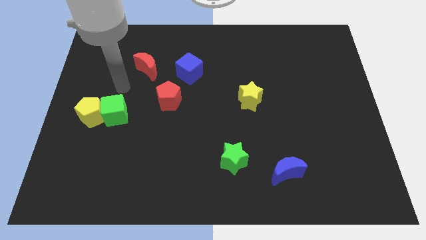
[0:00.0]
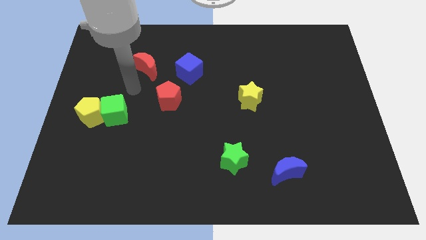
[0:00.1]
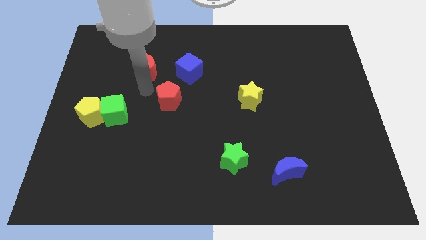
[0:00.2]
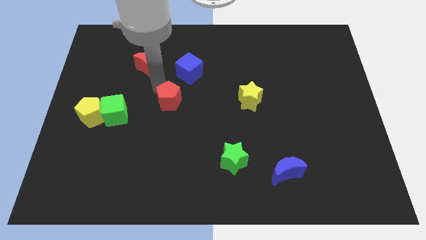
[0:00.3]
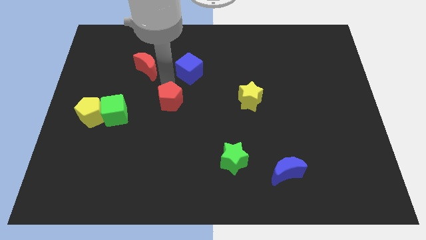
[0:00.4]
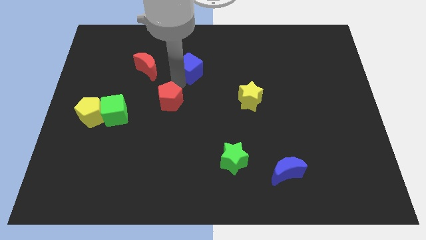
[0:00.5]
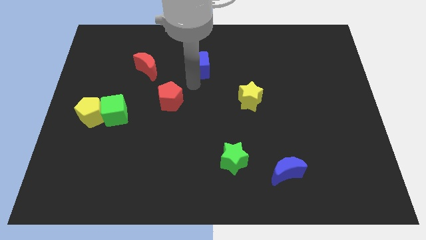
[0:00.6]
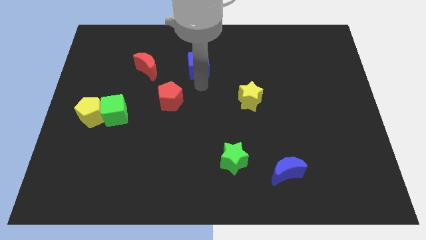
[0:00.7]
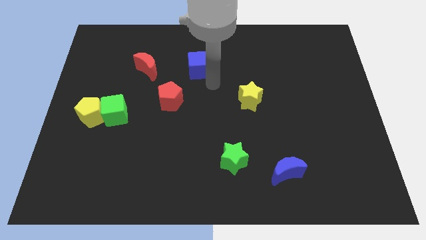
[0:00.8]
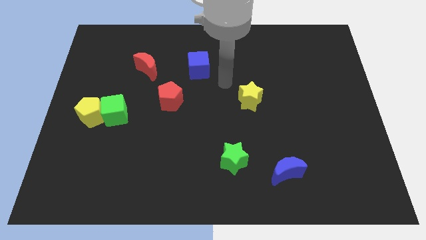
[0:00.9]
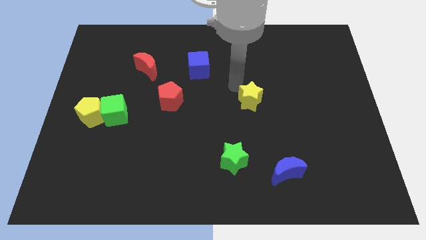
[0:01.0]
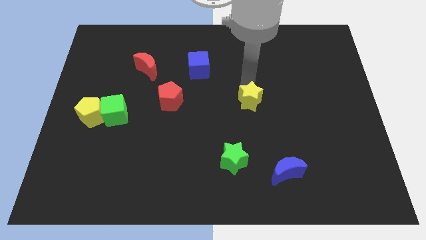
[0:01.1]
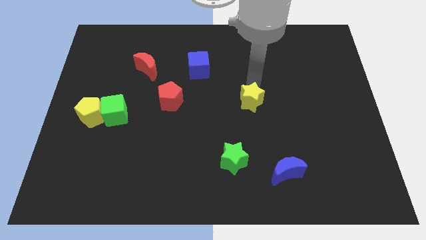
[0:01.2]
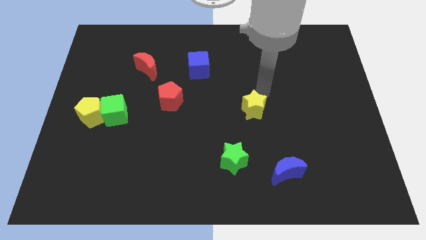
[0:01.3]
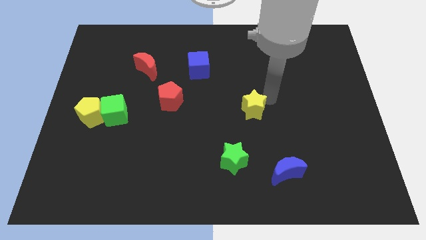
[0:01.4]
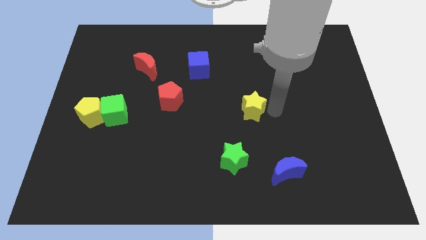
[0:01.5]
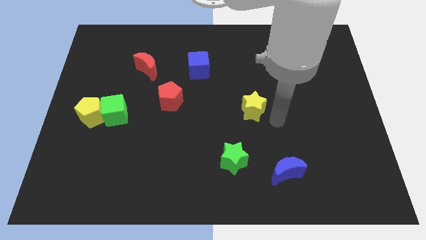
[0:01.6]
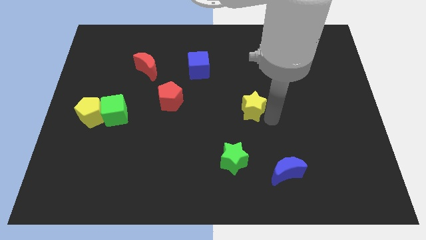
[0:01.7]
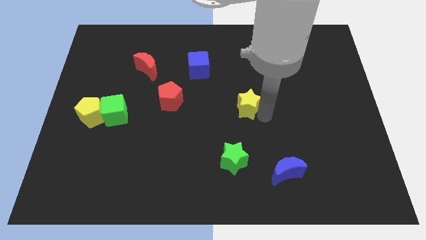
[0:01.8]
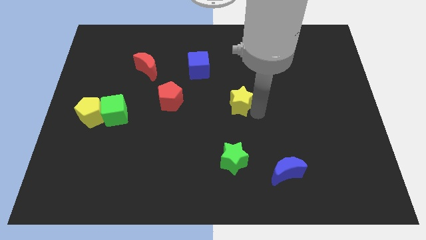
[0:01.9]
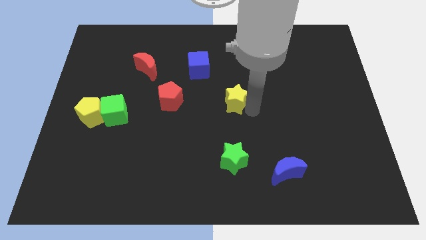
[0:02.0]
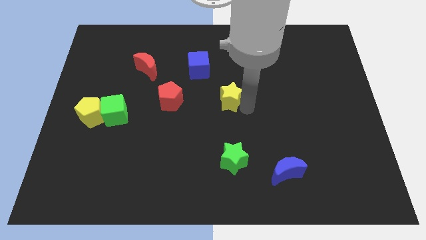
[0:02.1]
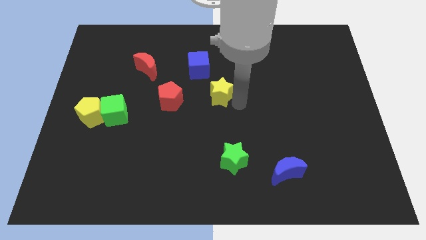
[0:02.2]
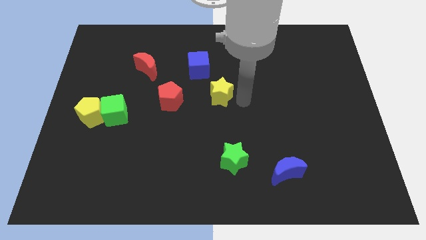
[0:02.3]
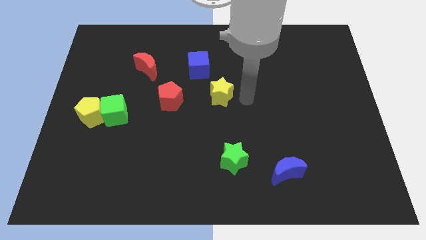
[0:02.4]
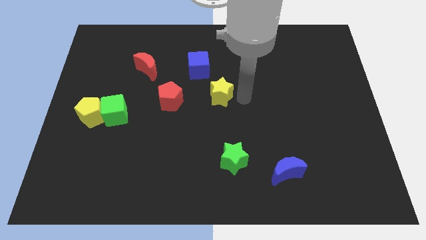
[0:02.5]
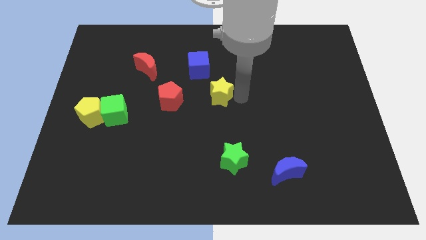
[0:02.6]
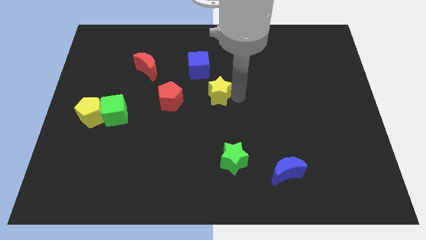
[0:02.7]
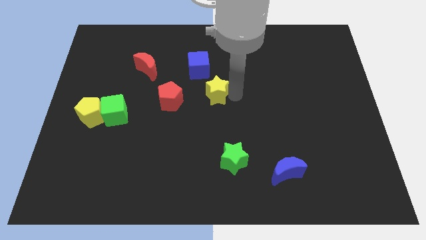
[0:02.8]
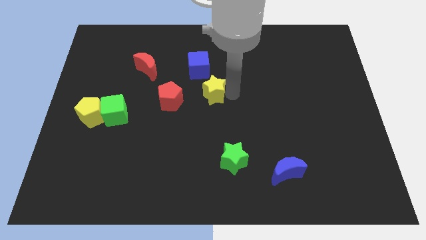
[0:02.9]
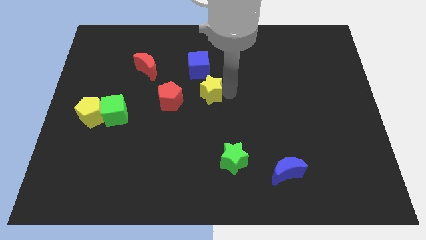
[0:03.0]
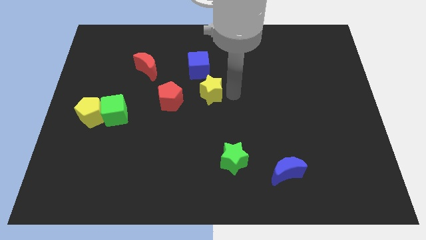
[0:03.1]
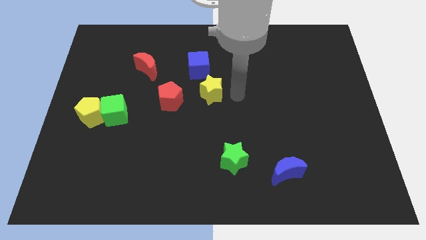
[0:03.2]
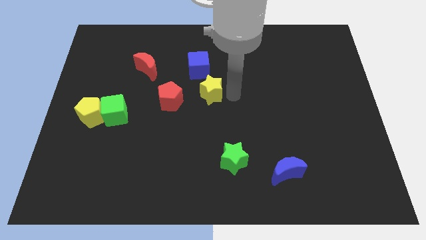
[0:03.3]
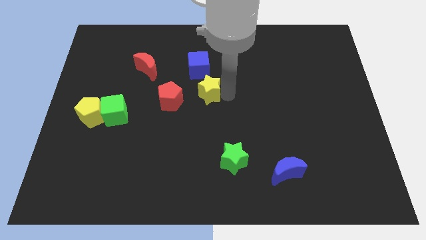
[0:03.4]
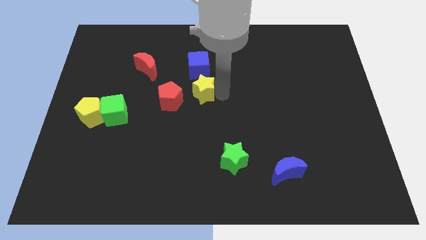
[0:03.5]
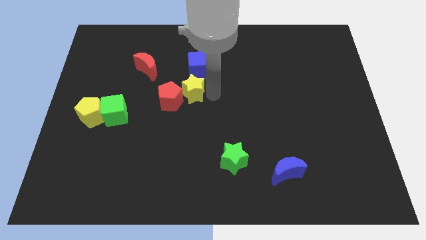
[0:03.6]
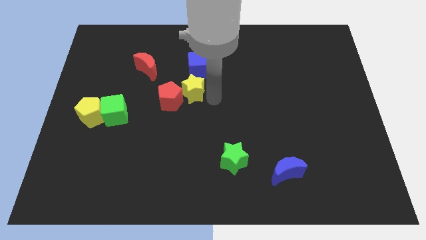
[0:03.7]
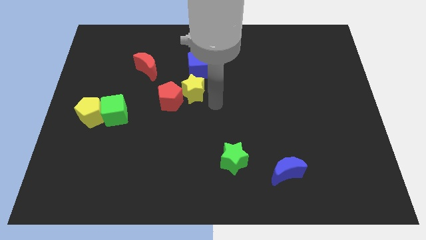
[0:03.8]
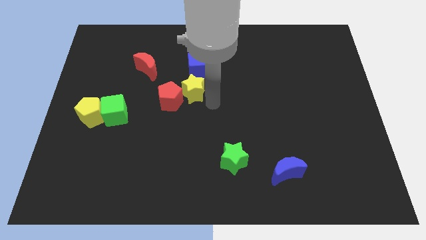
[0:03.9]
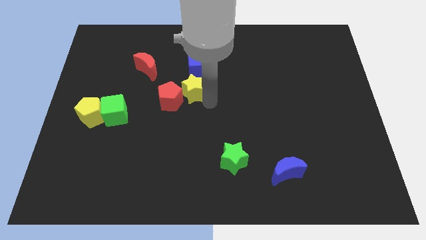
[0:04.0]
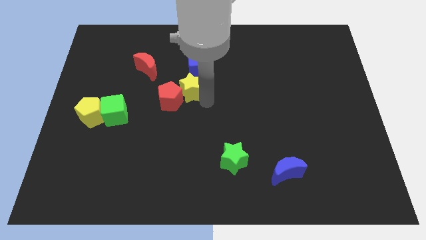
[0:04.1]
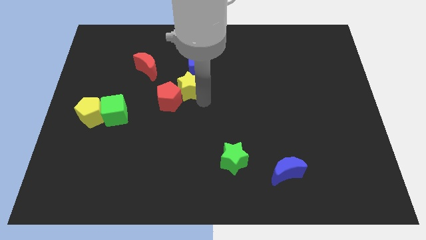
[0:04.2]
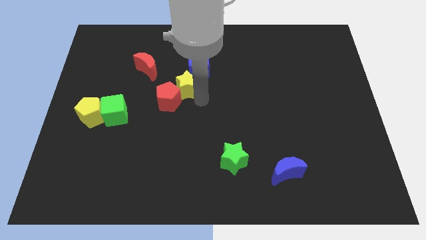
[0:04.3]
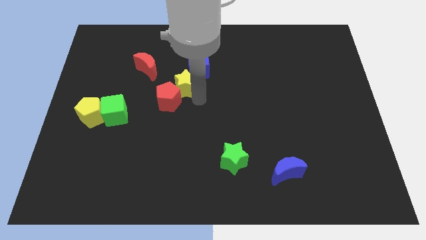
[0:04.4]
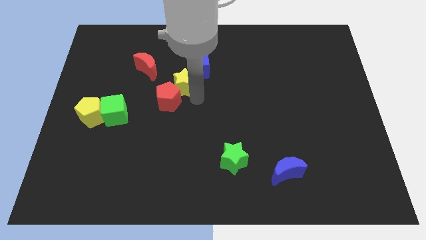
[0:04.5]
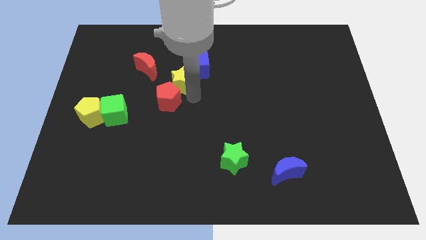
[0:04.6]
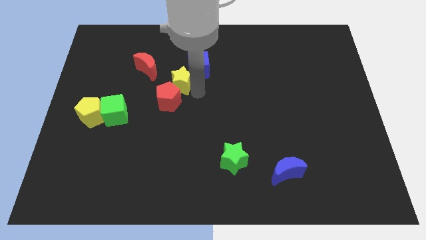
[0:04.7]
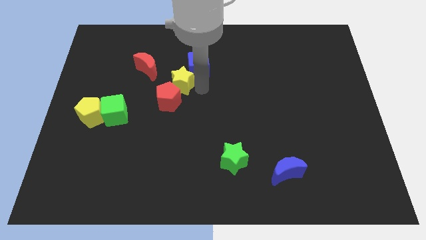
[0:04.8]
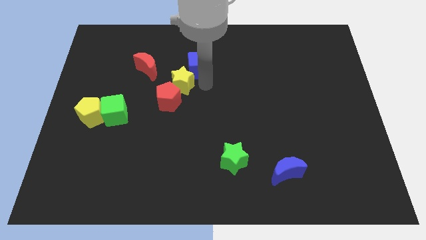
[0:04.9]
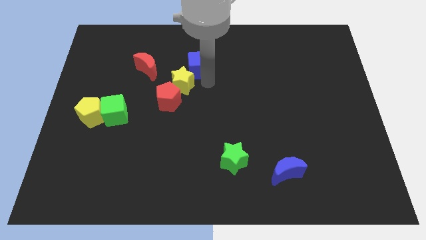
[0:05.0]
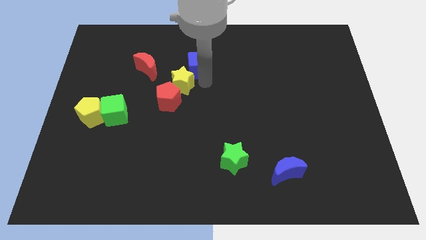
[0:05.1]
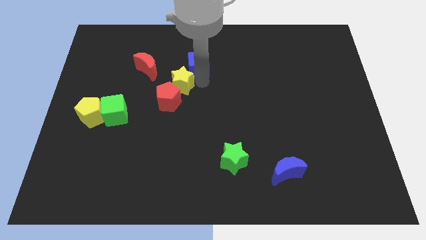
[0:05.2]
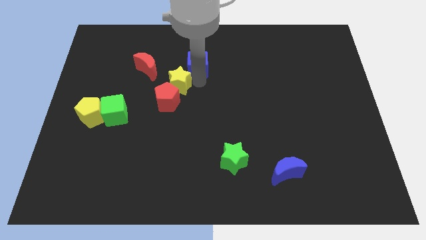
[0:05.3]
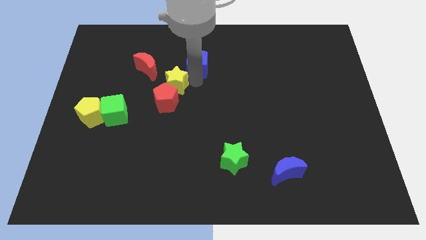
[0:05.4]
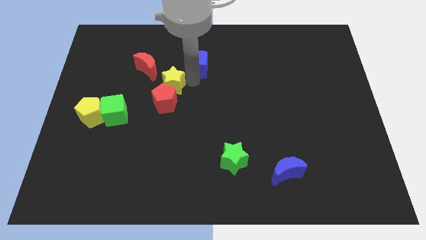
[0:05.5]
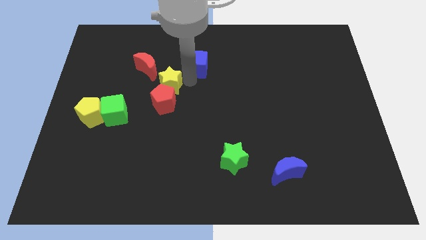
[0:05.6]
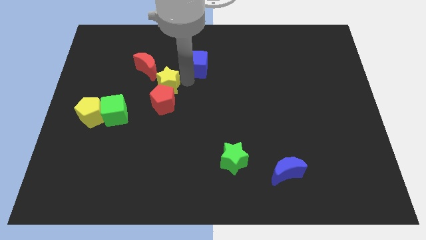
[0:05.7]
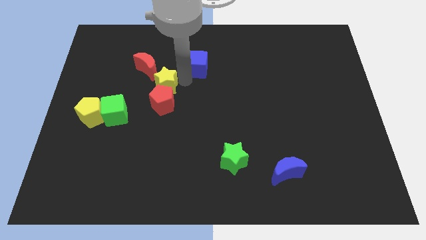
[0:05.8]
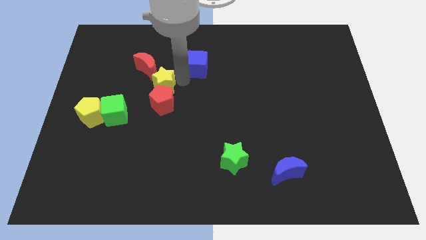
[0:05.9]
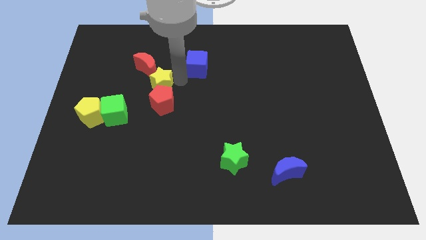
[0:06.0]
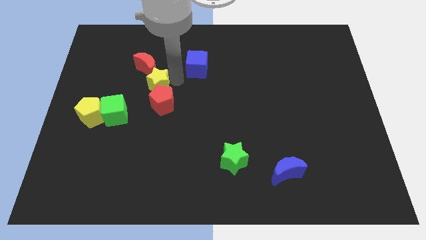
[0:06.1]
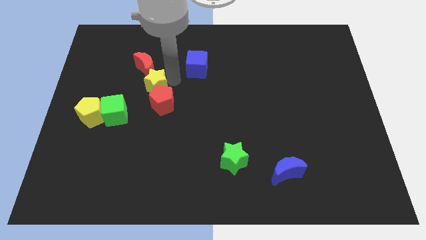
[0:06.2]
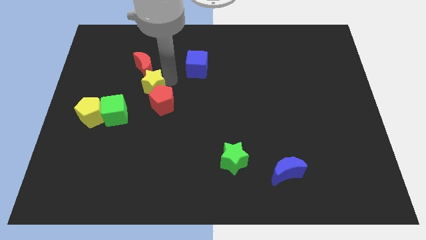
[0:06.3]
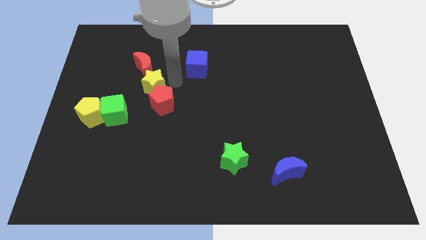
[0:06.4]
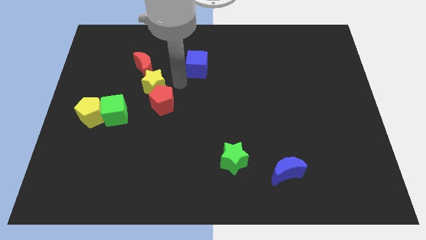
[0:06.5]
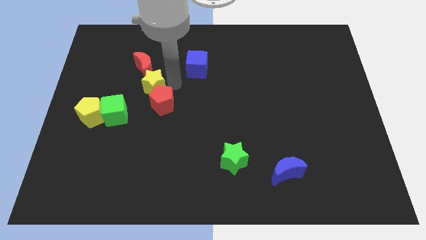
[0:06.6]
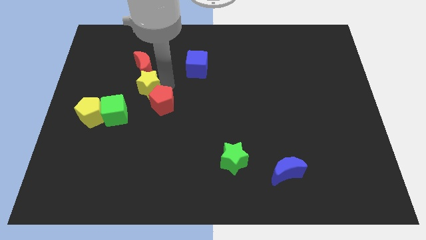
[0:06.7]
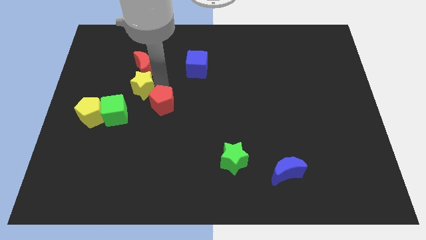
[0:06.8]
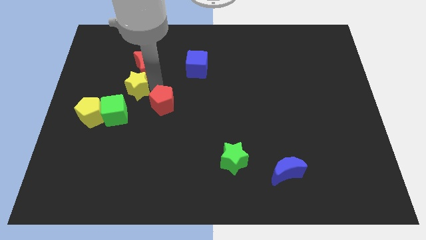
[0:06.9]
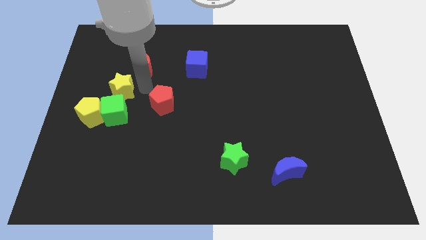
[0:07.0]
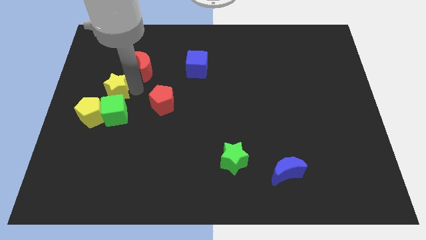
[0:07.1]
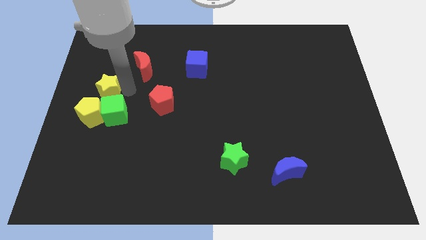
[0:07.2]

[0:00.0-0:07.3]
put the yellow star to the left side of the board
